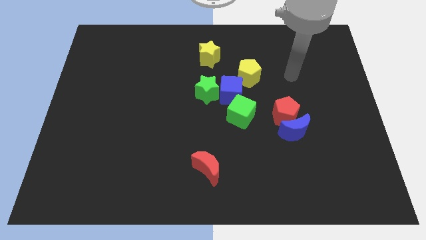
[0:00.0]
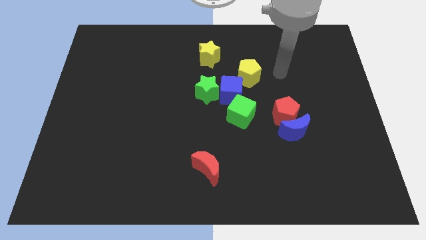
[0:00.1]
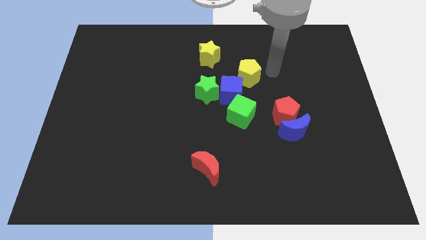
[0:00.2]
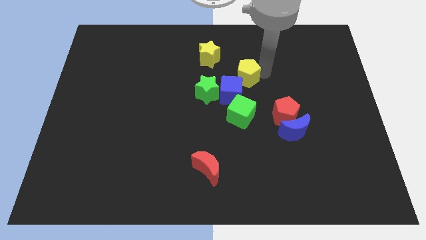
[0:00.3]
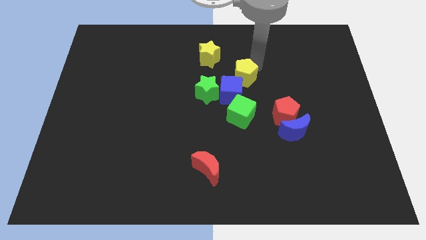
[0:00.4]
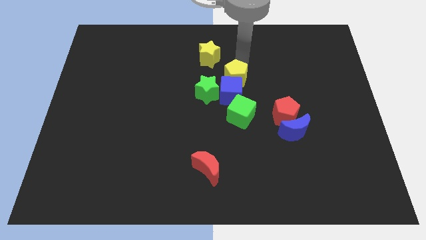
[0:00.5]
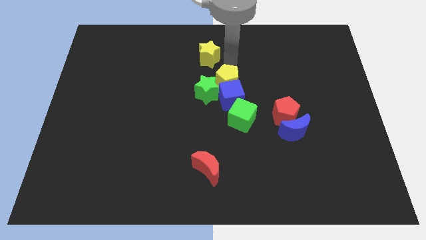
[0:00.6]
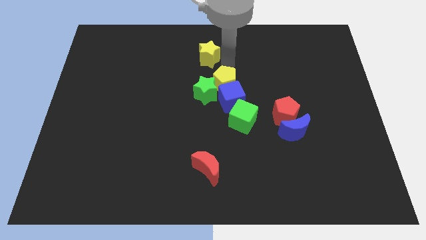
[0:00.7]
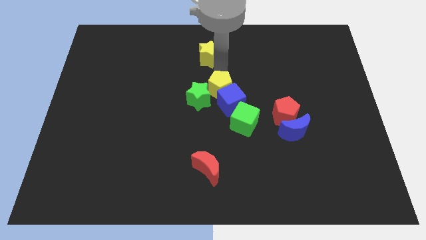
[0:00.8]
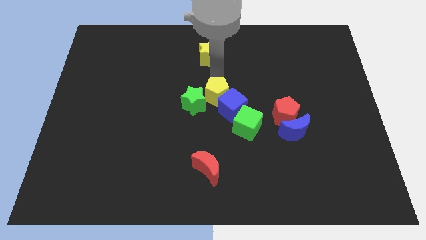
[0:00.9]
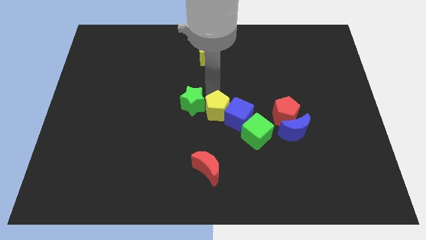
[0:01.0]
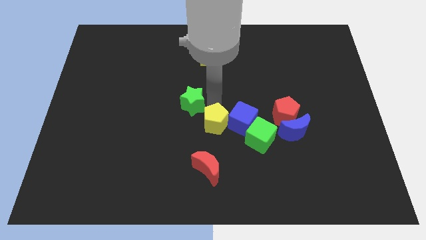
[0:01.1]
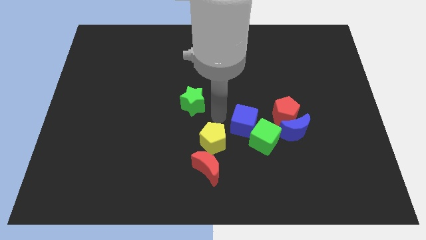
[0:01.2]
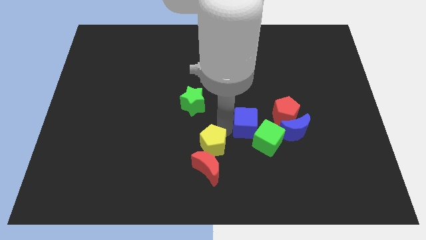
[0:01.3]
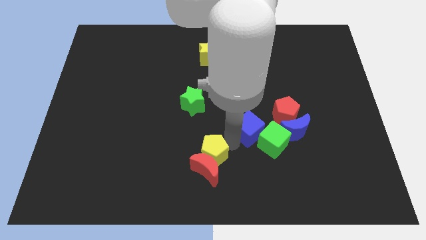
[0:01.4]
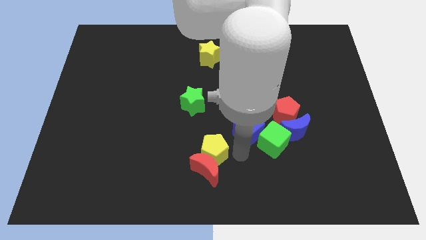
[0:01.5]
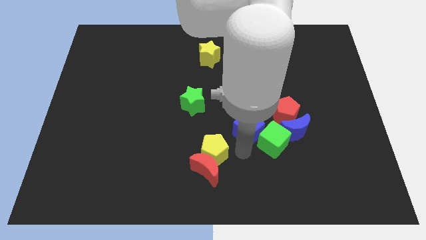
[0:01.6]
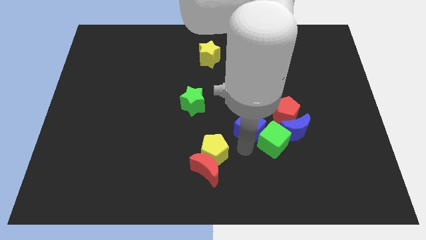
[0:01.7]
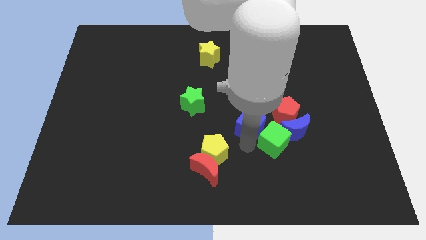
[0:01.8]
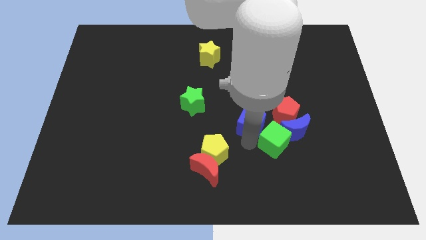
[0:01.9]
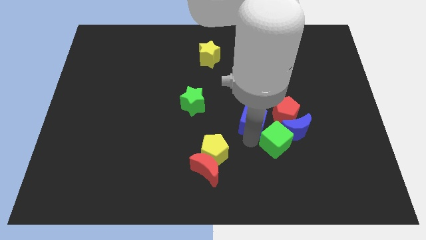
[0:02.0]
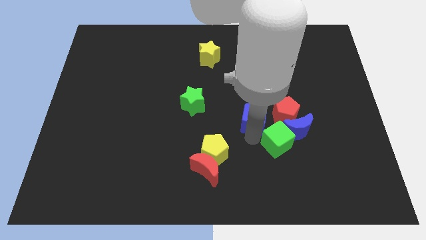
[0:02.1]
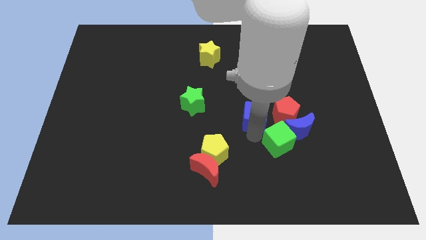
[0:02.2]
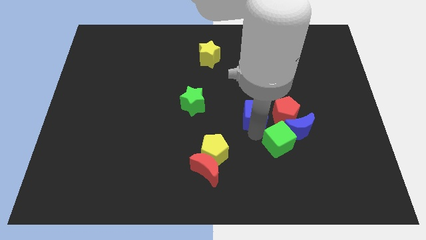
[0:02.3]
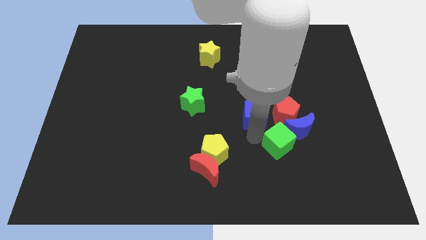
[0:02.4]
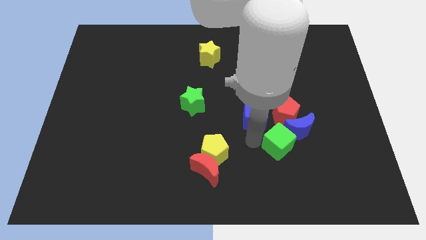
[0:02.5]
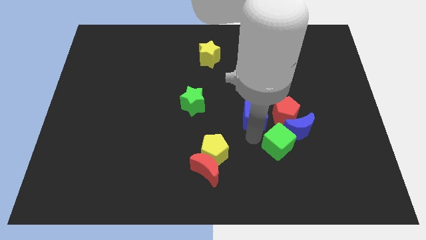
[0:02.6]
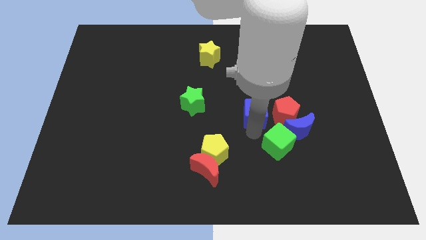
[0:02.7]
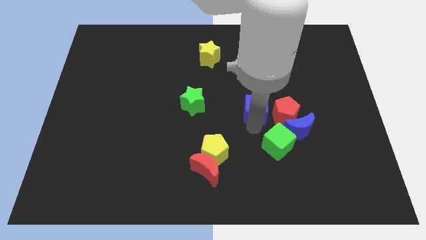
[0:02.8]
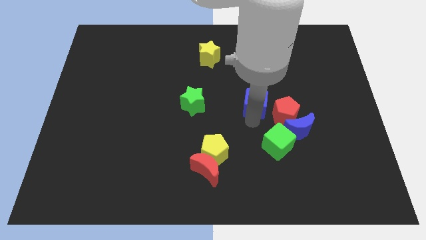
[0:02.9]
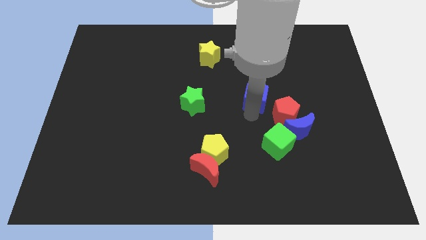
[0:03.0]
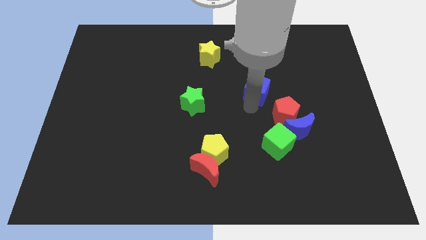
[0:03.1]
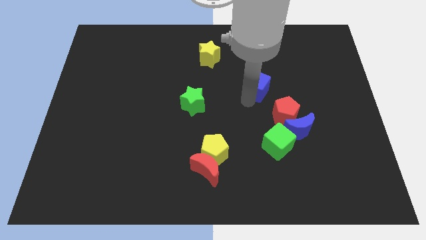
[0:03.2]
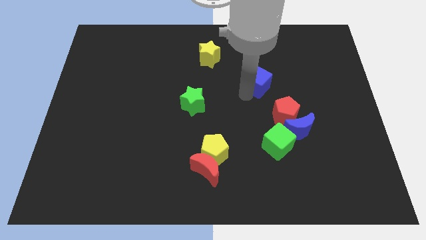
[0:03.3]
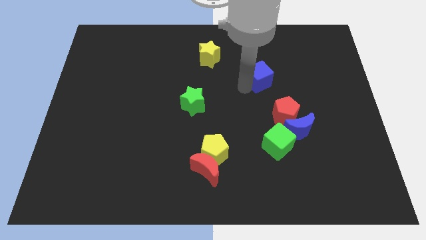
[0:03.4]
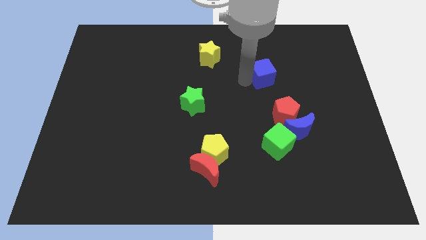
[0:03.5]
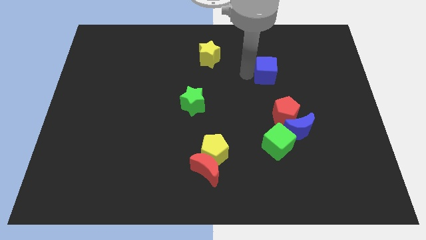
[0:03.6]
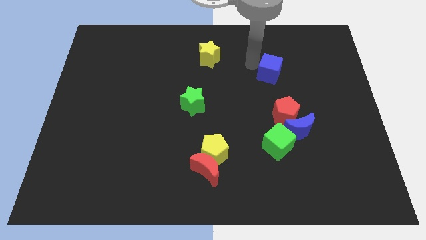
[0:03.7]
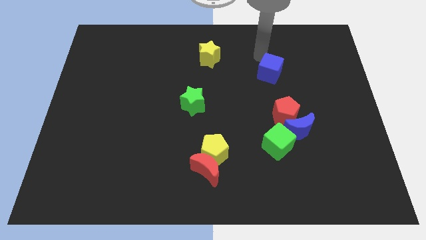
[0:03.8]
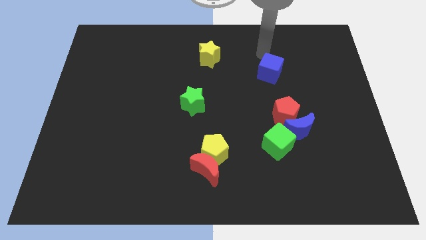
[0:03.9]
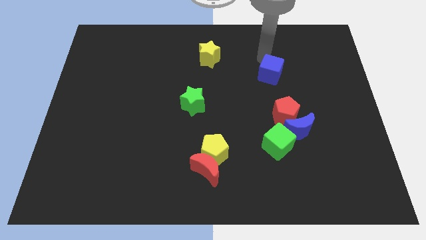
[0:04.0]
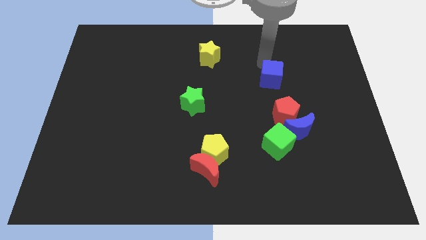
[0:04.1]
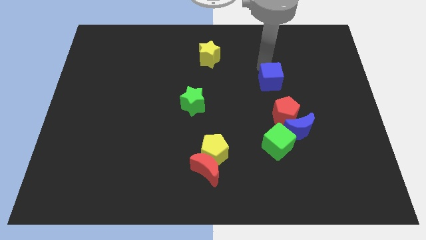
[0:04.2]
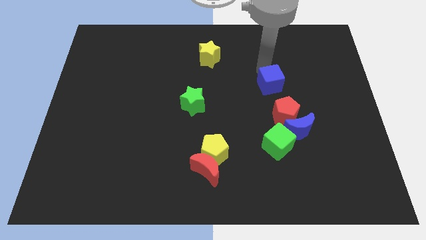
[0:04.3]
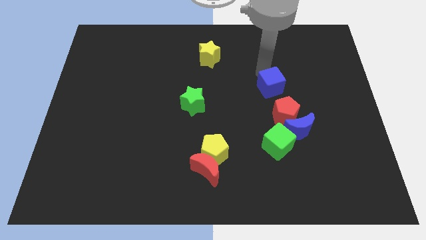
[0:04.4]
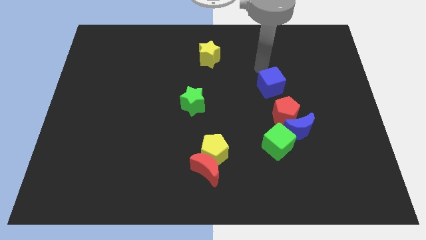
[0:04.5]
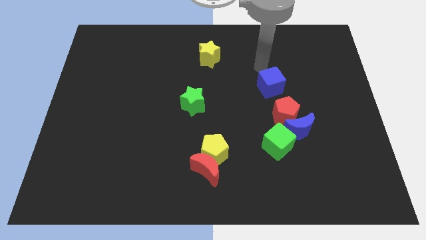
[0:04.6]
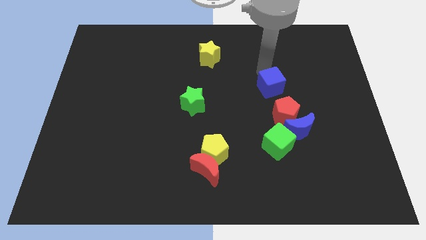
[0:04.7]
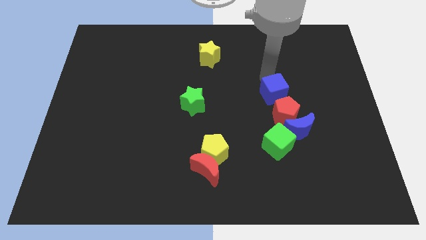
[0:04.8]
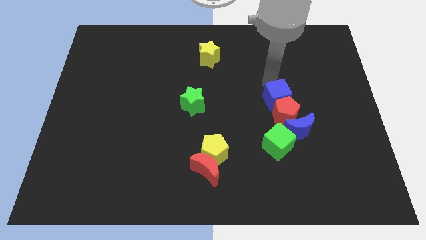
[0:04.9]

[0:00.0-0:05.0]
put the blue cube to the red pentagon

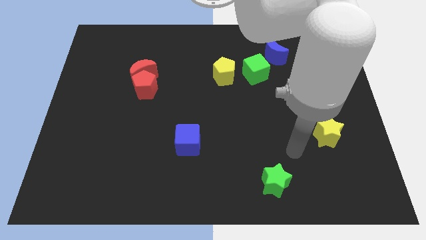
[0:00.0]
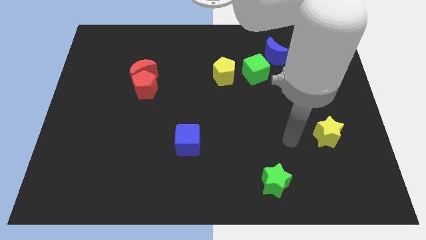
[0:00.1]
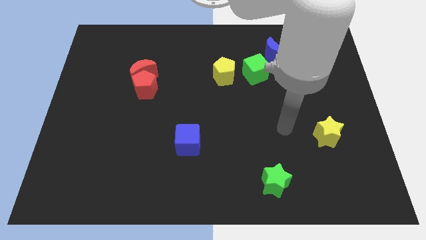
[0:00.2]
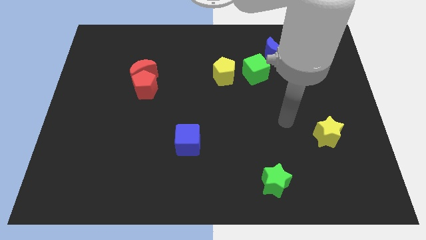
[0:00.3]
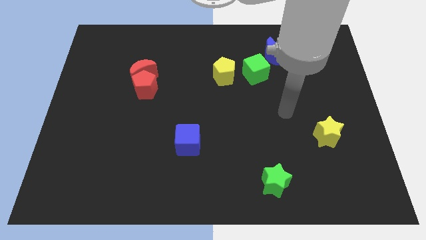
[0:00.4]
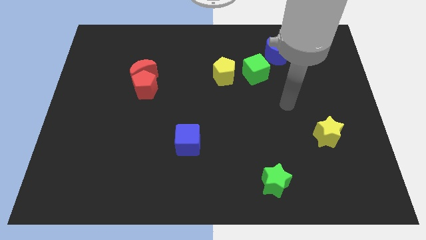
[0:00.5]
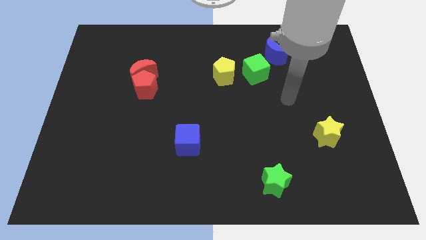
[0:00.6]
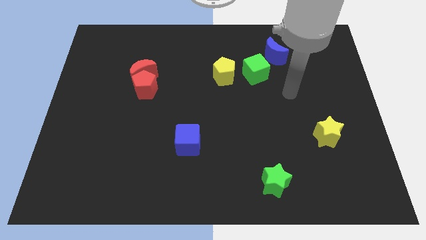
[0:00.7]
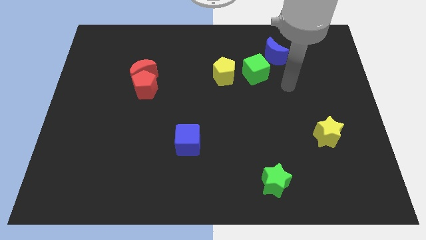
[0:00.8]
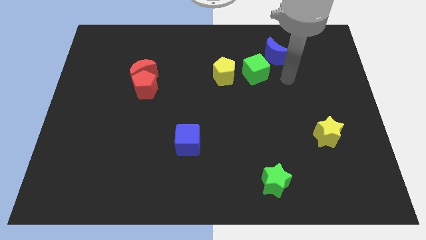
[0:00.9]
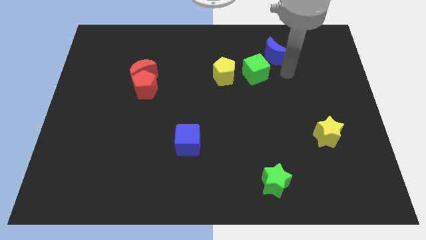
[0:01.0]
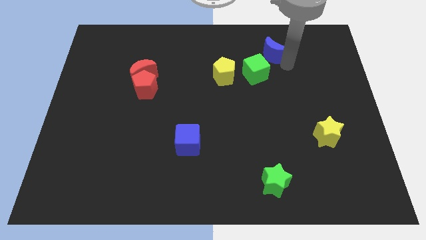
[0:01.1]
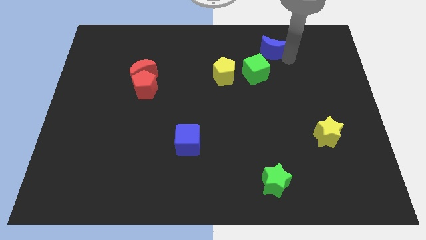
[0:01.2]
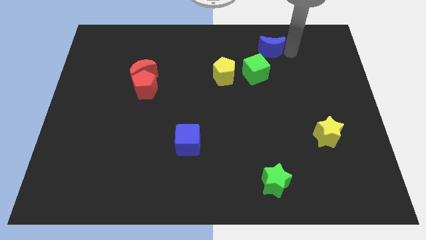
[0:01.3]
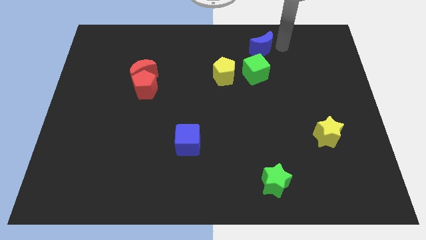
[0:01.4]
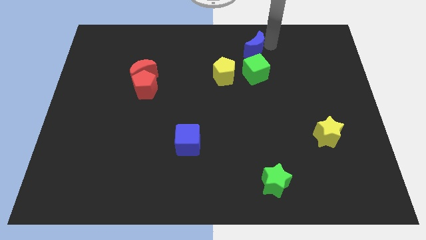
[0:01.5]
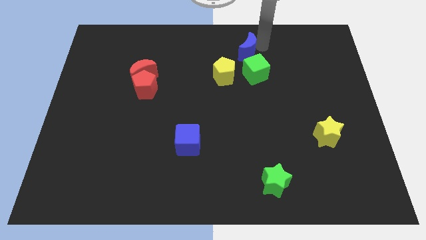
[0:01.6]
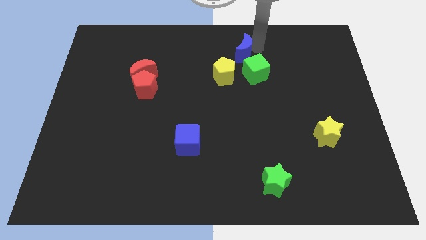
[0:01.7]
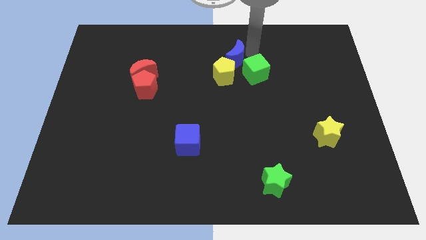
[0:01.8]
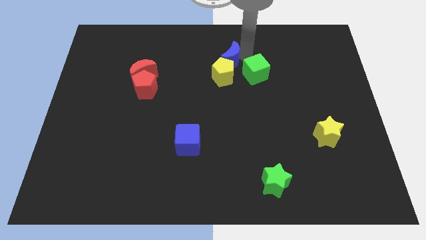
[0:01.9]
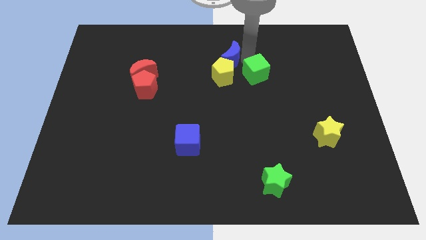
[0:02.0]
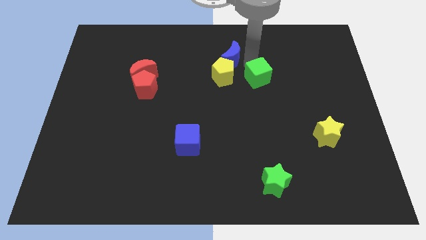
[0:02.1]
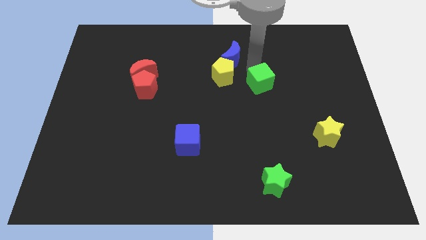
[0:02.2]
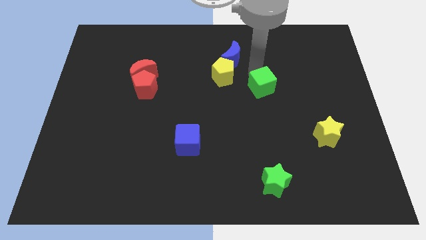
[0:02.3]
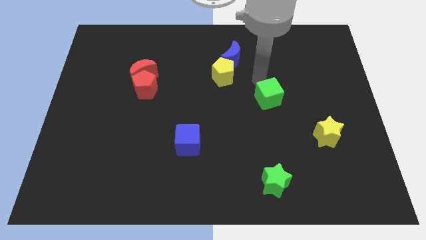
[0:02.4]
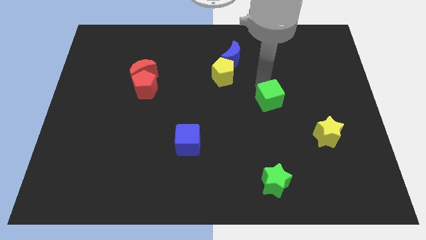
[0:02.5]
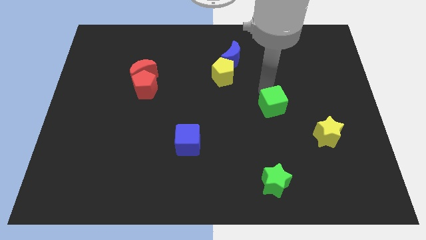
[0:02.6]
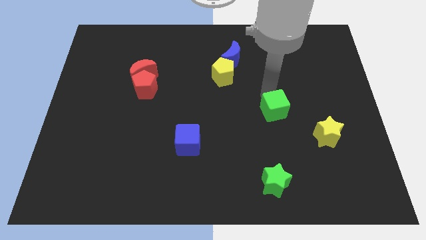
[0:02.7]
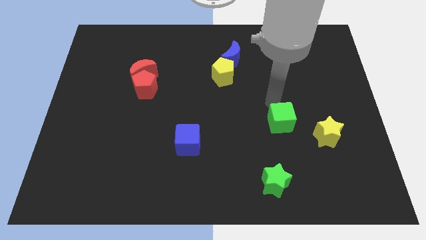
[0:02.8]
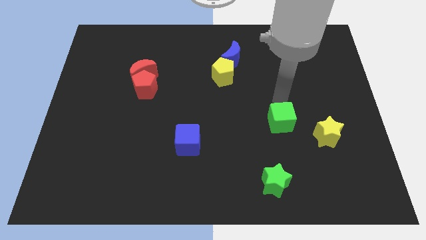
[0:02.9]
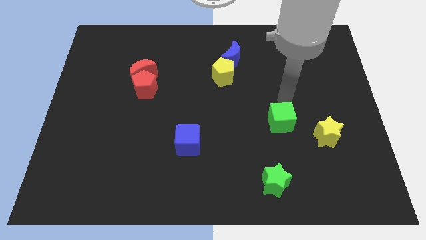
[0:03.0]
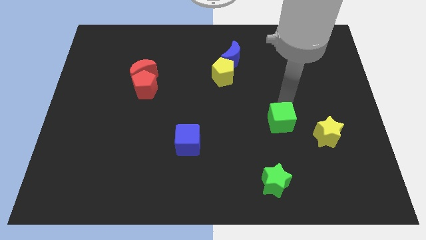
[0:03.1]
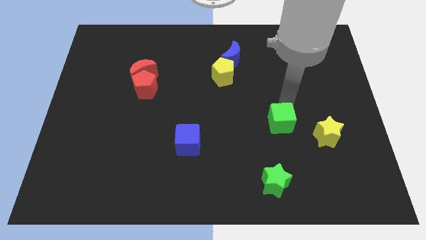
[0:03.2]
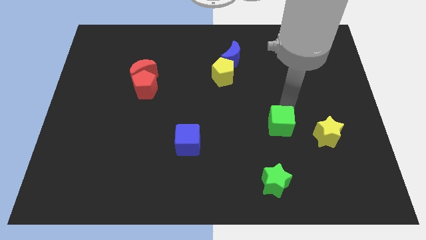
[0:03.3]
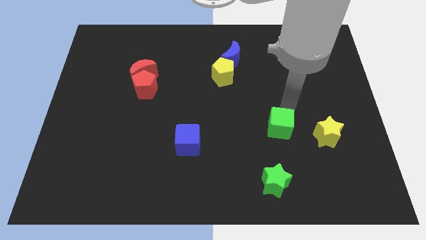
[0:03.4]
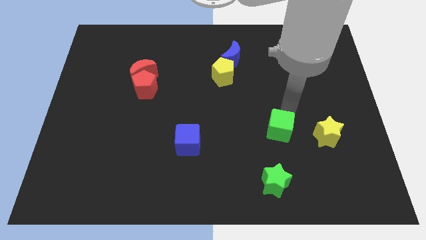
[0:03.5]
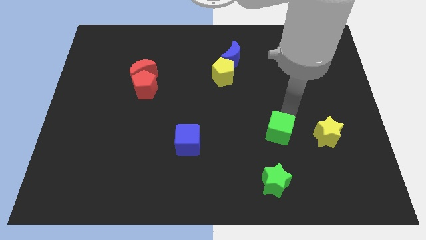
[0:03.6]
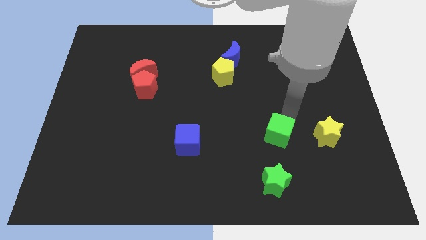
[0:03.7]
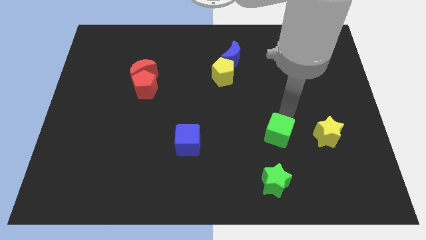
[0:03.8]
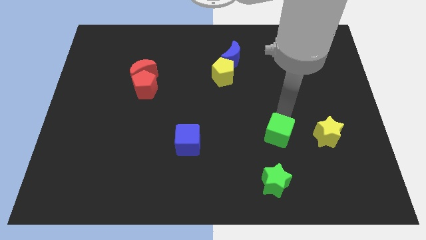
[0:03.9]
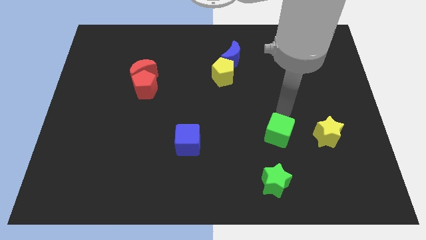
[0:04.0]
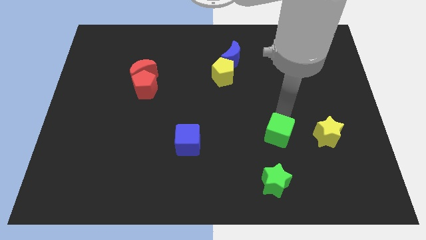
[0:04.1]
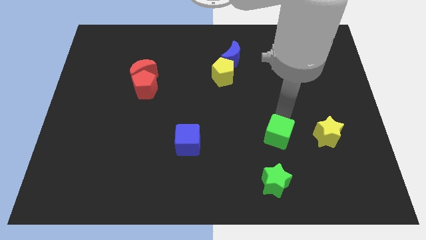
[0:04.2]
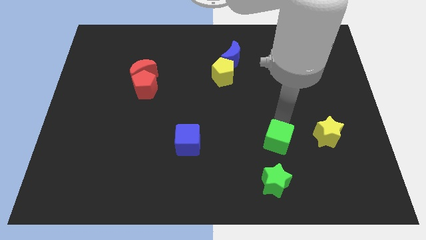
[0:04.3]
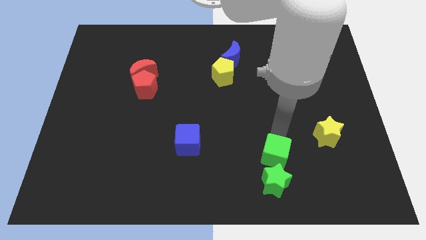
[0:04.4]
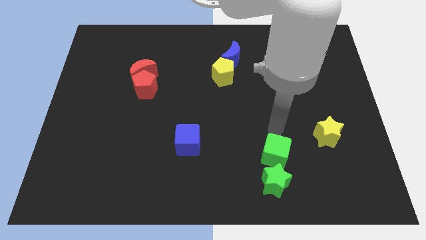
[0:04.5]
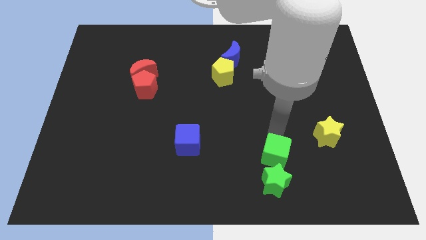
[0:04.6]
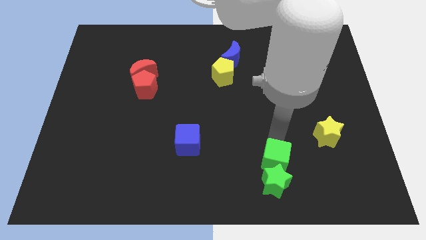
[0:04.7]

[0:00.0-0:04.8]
put the green cube close to the green star
